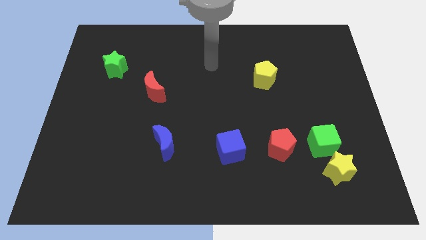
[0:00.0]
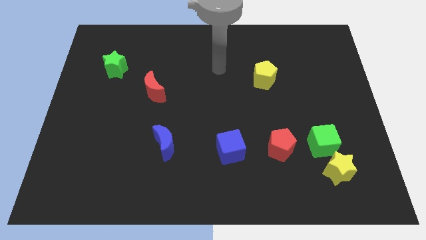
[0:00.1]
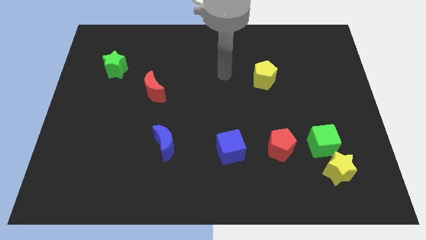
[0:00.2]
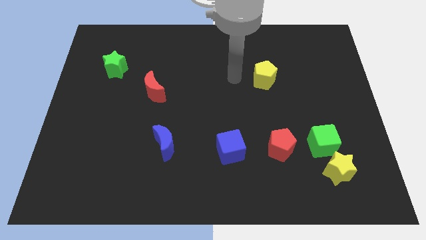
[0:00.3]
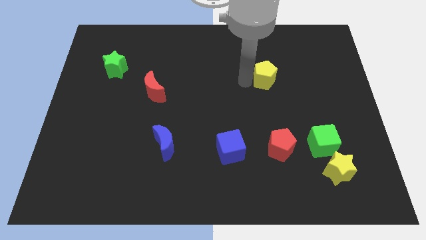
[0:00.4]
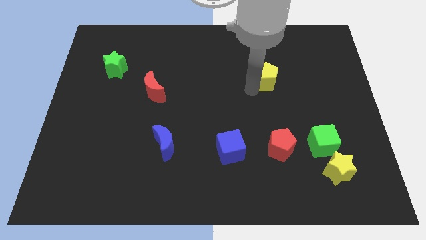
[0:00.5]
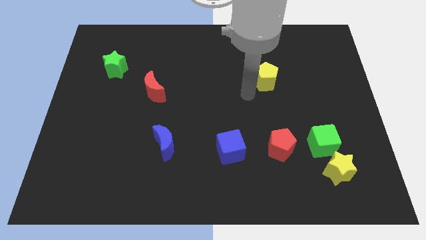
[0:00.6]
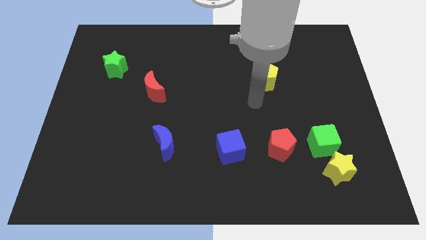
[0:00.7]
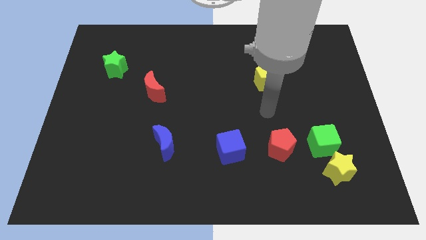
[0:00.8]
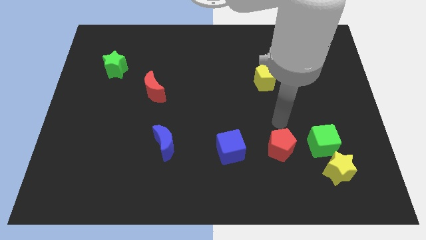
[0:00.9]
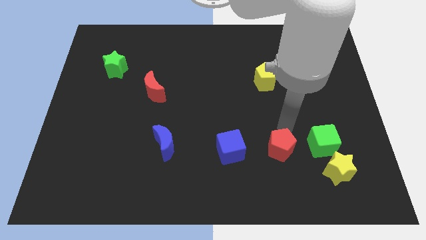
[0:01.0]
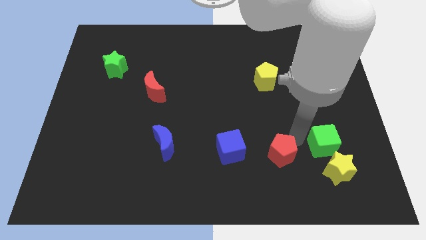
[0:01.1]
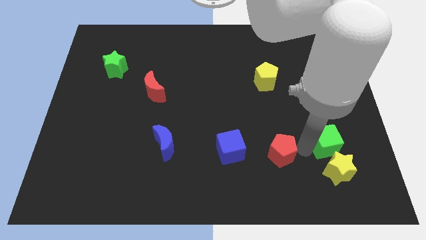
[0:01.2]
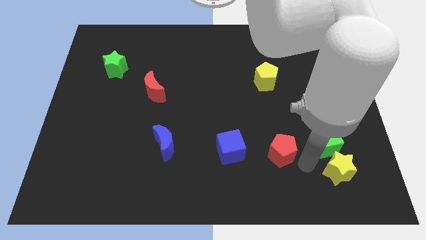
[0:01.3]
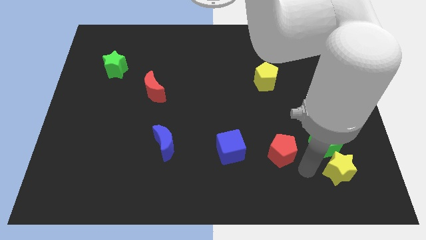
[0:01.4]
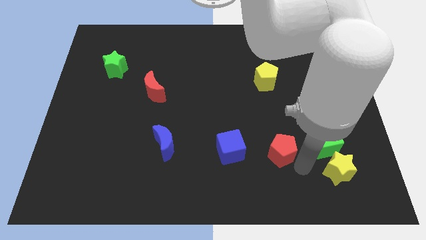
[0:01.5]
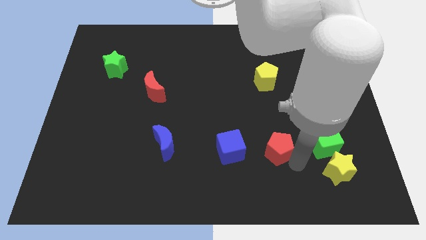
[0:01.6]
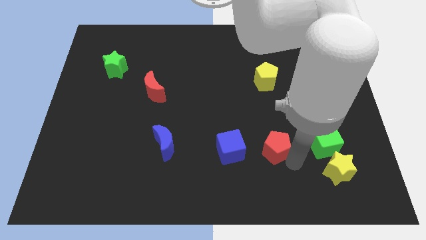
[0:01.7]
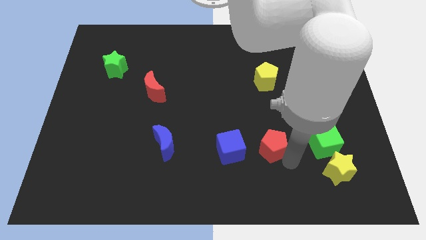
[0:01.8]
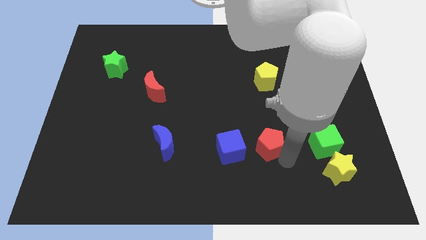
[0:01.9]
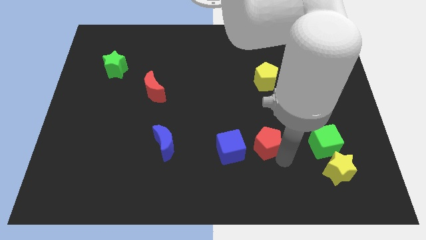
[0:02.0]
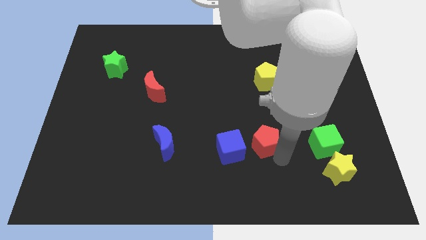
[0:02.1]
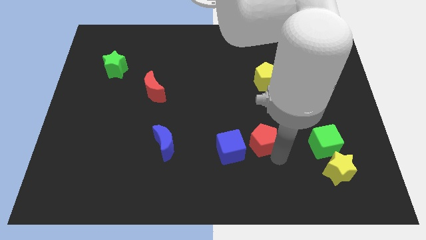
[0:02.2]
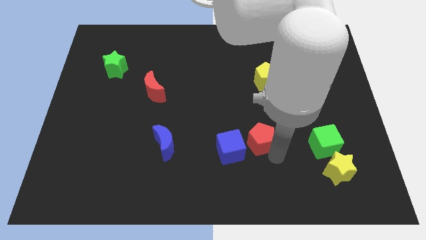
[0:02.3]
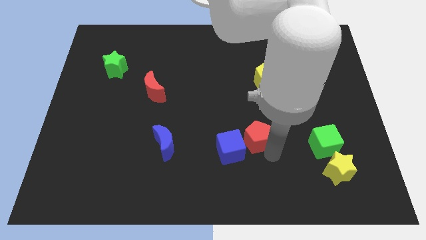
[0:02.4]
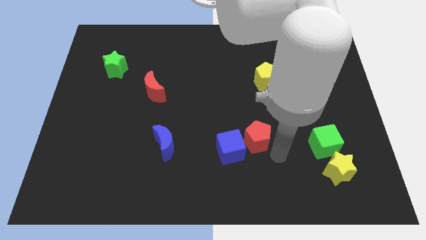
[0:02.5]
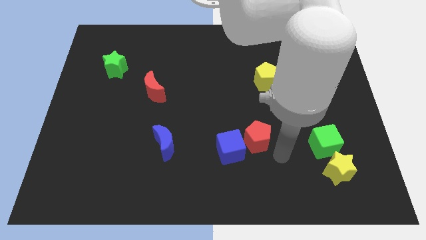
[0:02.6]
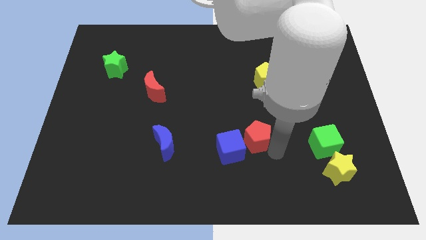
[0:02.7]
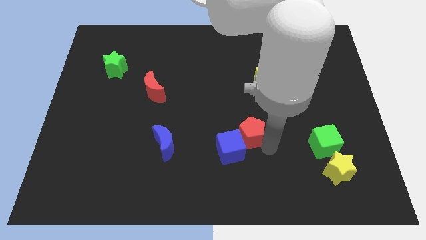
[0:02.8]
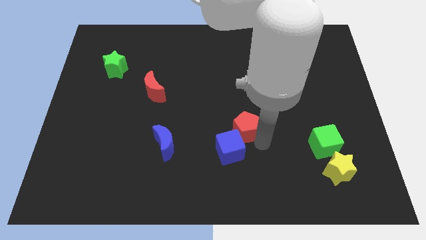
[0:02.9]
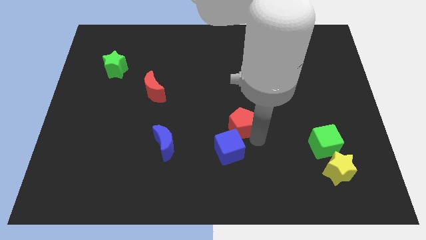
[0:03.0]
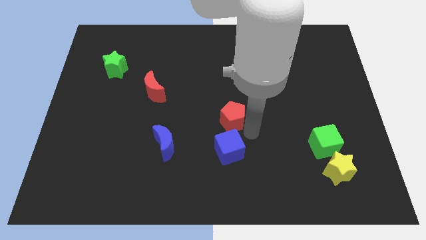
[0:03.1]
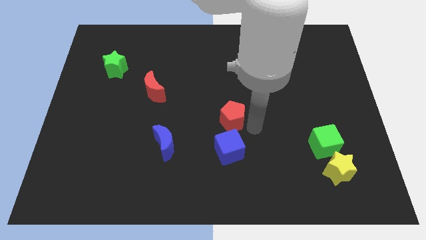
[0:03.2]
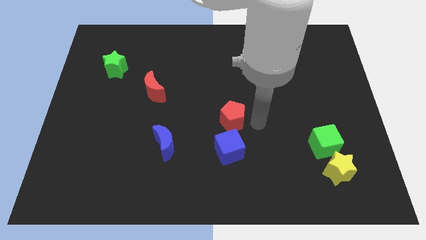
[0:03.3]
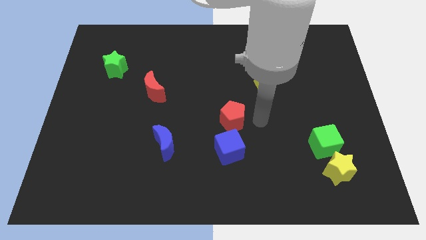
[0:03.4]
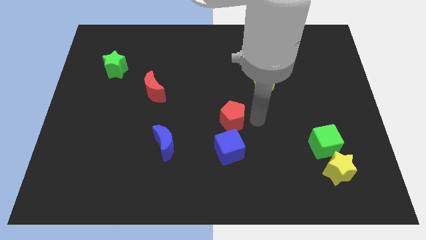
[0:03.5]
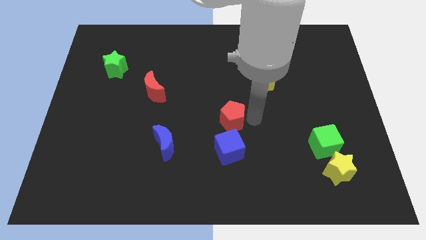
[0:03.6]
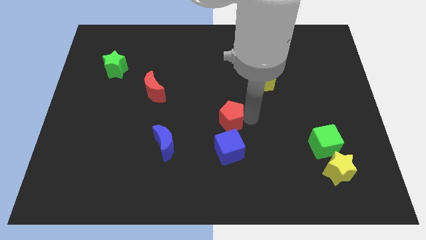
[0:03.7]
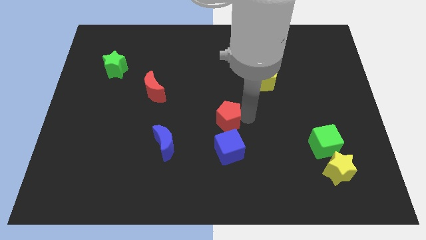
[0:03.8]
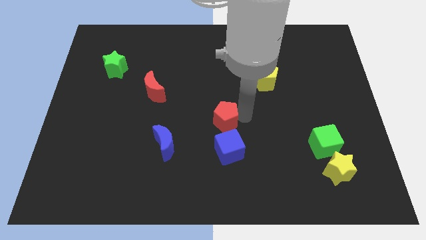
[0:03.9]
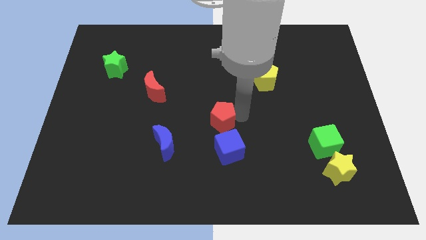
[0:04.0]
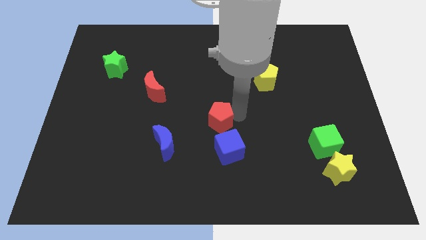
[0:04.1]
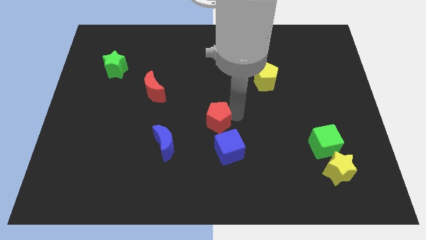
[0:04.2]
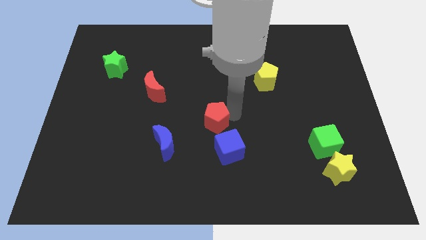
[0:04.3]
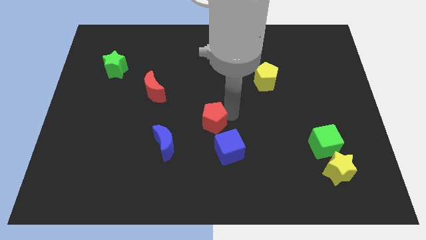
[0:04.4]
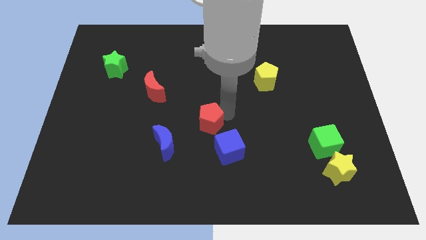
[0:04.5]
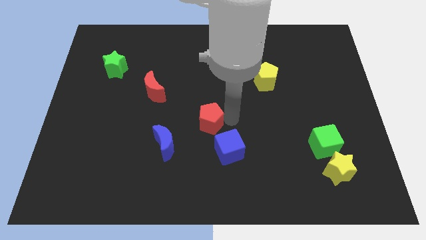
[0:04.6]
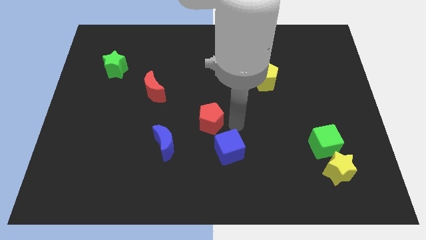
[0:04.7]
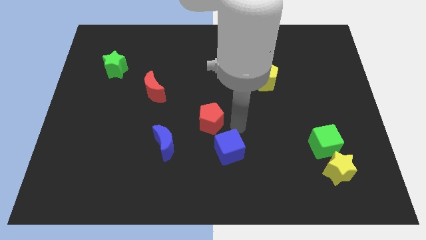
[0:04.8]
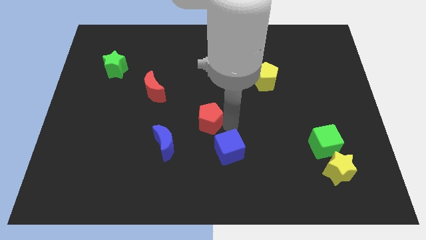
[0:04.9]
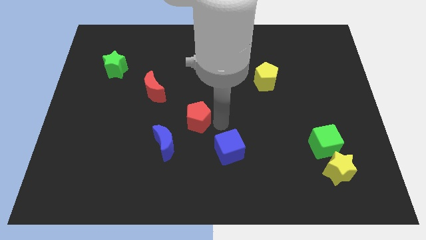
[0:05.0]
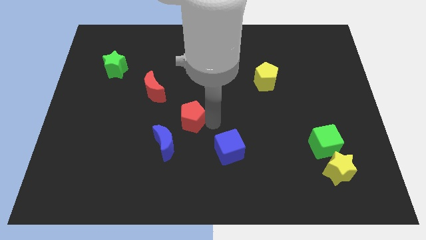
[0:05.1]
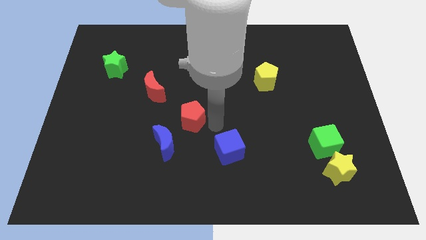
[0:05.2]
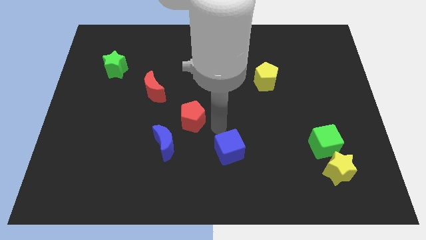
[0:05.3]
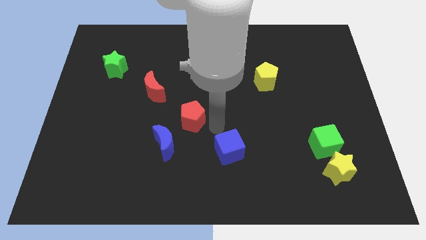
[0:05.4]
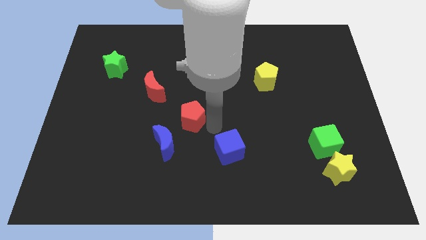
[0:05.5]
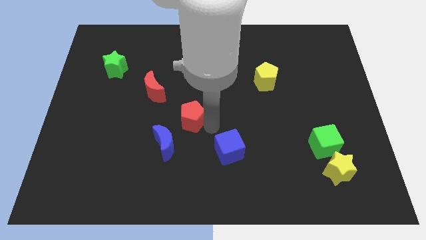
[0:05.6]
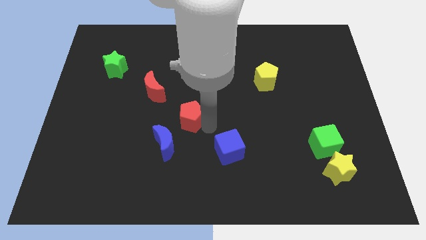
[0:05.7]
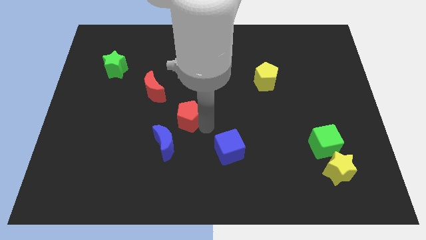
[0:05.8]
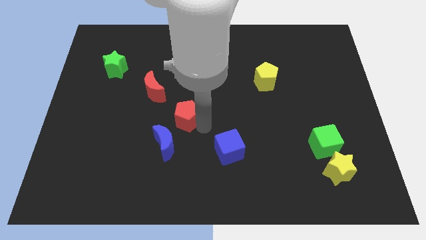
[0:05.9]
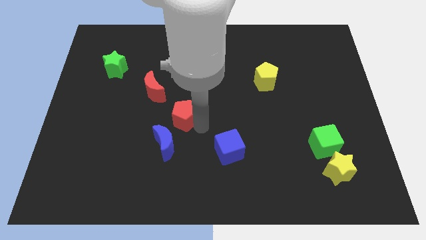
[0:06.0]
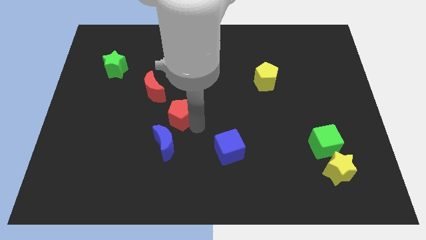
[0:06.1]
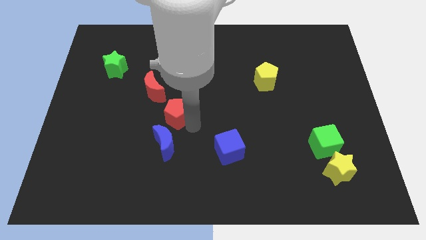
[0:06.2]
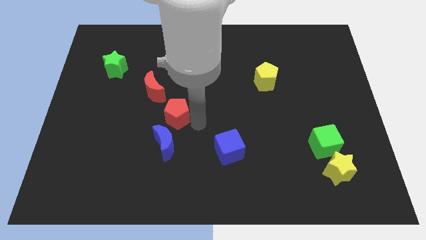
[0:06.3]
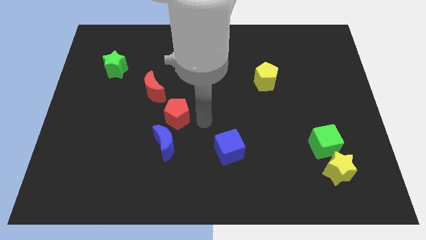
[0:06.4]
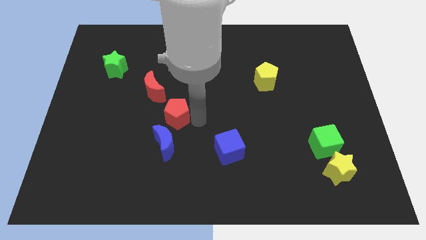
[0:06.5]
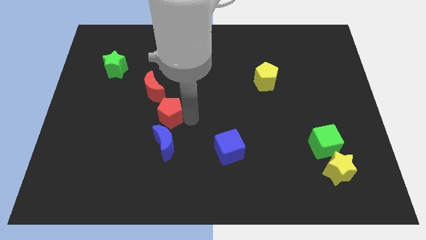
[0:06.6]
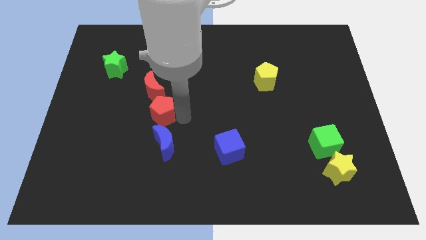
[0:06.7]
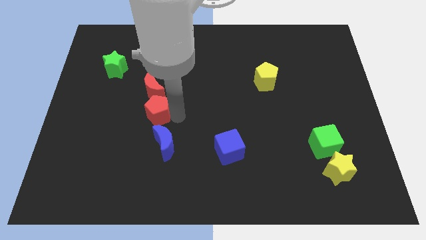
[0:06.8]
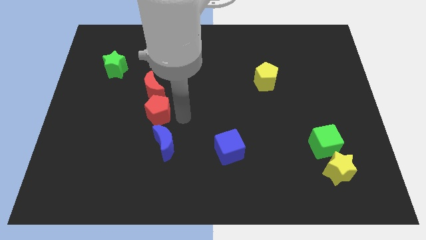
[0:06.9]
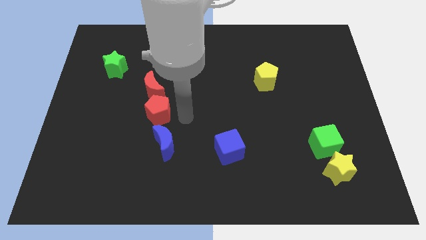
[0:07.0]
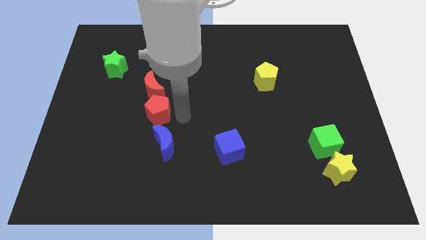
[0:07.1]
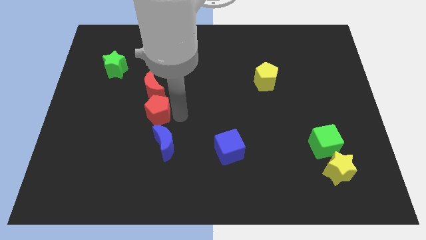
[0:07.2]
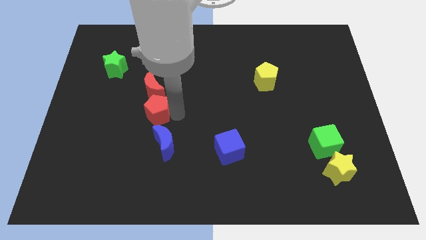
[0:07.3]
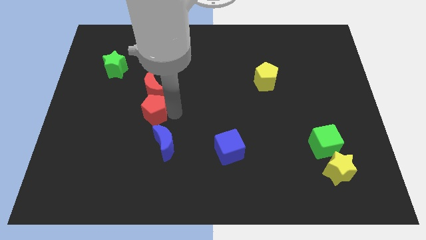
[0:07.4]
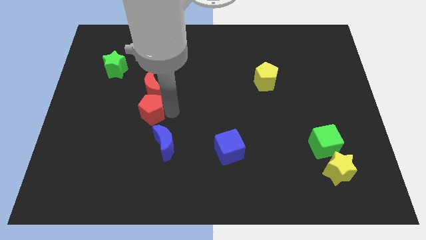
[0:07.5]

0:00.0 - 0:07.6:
push the red pentagon diagonally down and to the left of the red moon

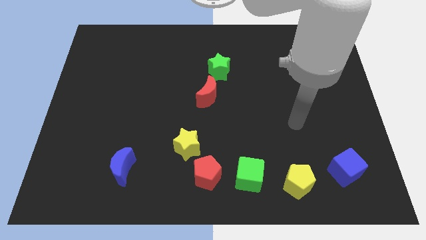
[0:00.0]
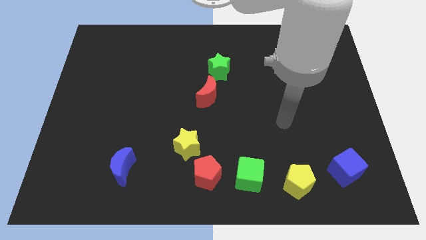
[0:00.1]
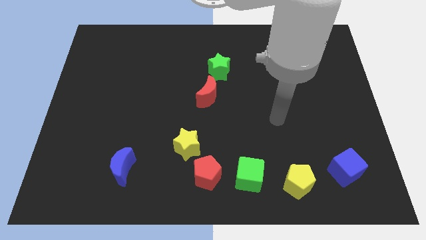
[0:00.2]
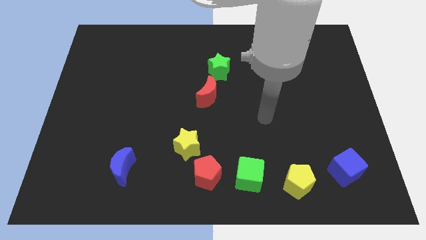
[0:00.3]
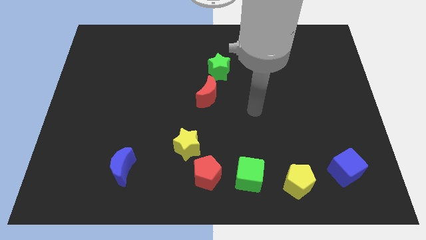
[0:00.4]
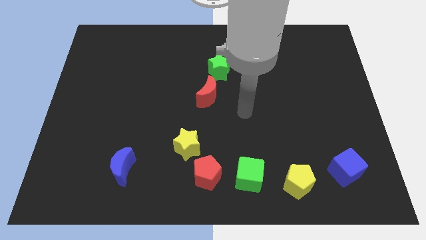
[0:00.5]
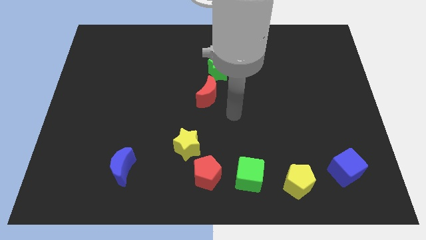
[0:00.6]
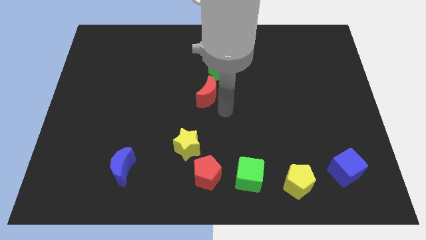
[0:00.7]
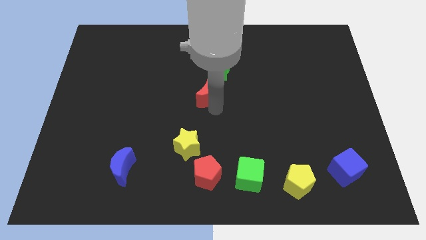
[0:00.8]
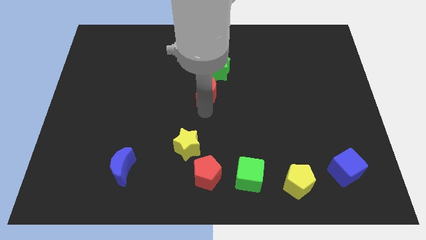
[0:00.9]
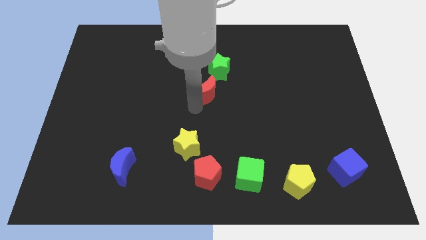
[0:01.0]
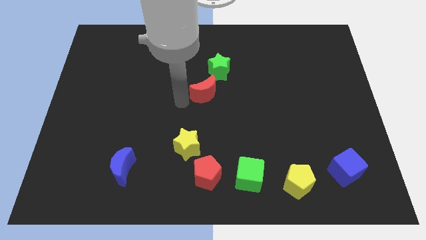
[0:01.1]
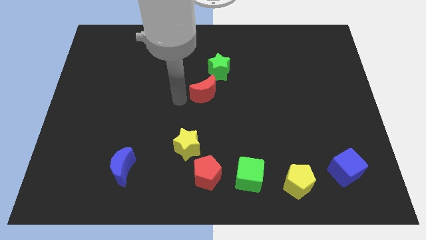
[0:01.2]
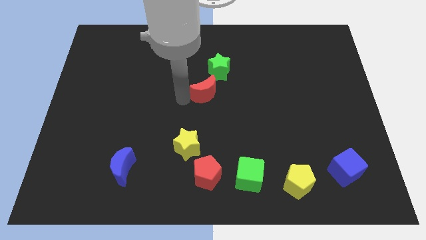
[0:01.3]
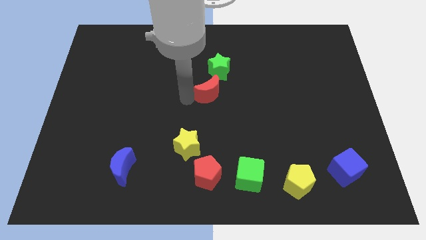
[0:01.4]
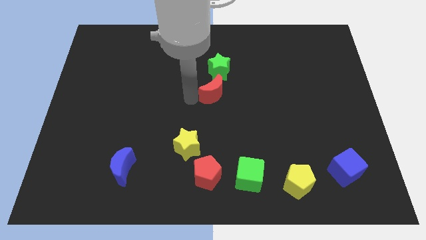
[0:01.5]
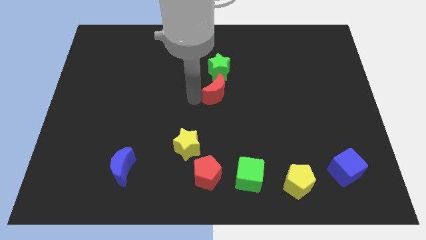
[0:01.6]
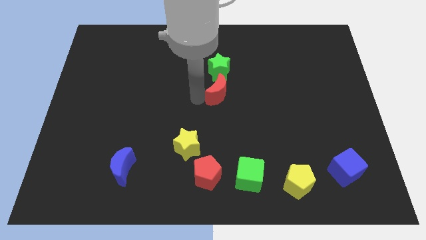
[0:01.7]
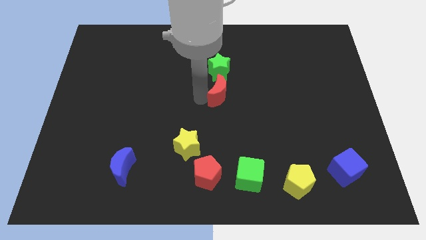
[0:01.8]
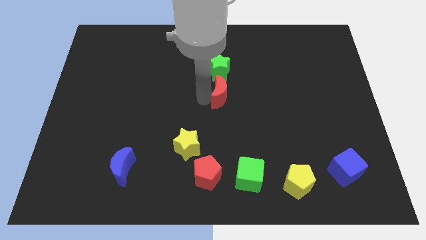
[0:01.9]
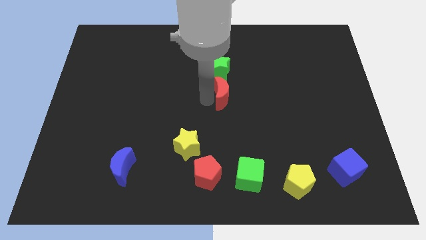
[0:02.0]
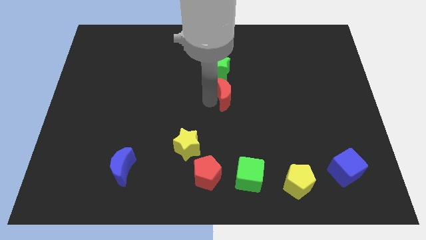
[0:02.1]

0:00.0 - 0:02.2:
slide the red moon to the bottom right side of the green star
